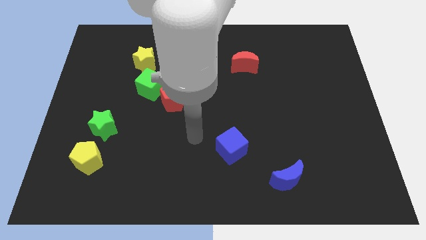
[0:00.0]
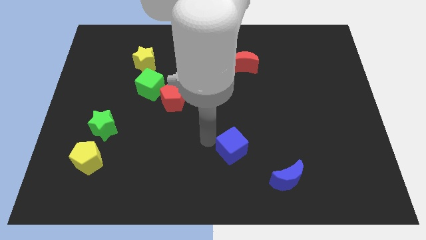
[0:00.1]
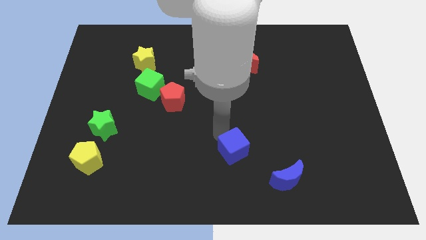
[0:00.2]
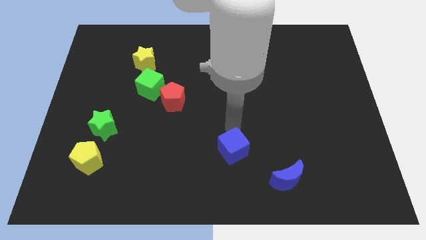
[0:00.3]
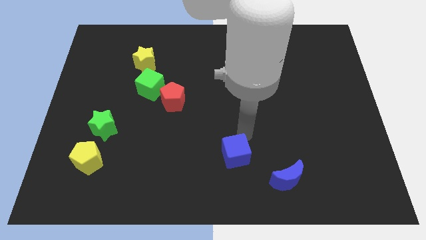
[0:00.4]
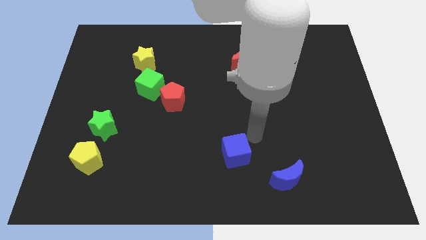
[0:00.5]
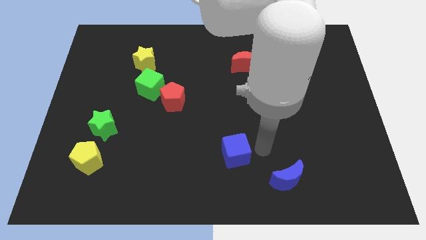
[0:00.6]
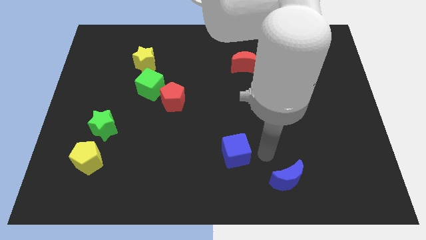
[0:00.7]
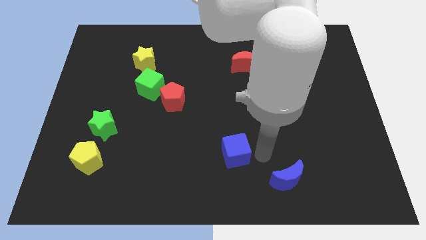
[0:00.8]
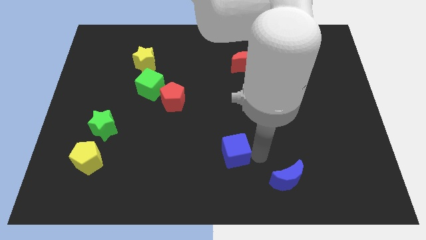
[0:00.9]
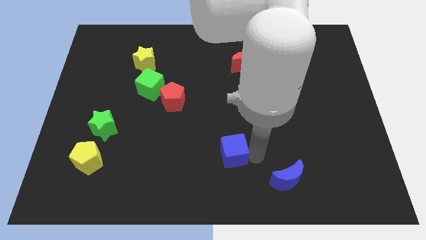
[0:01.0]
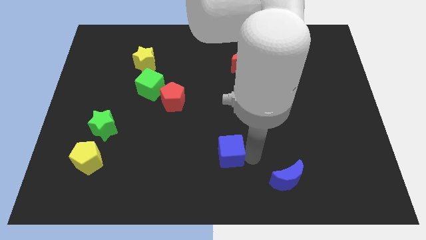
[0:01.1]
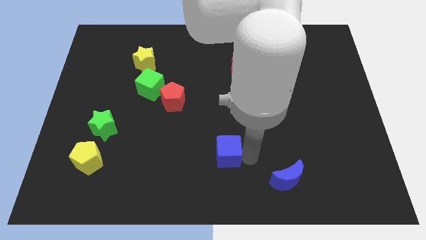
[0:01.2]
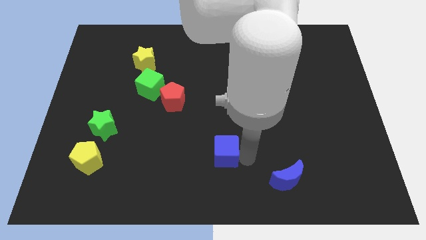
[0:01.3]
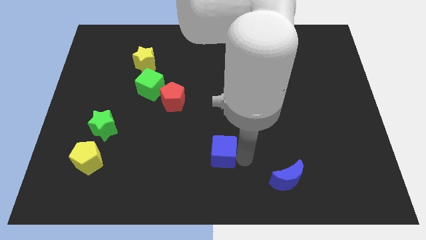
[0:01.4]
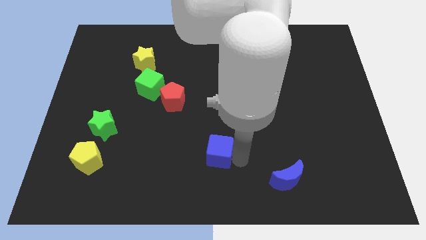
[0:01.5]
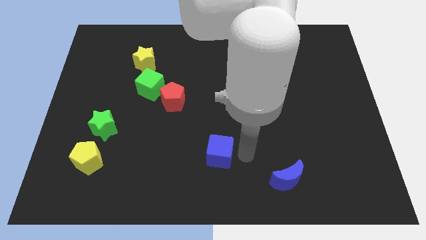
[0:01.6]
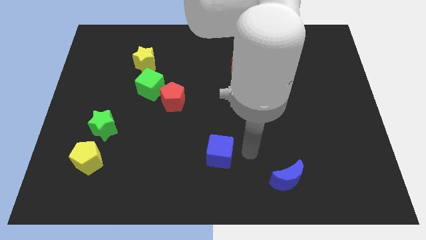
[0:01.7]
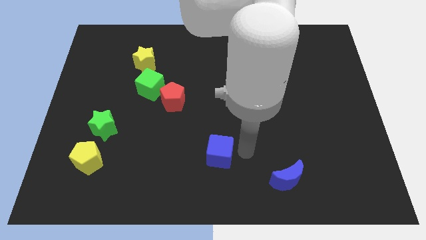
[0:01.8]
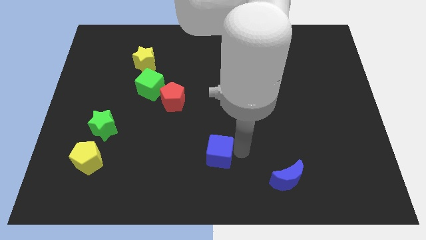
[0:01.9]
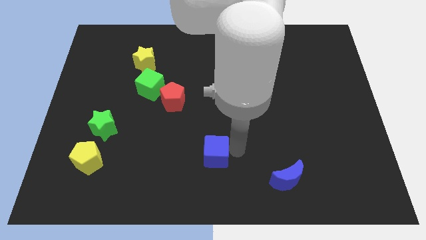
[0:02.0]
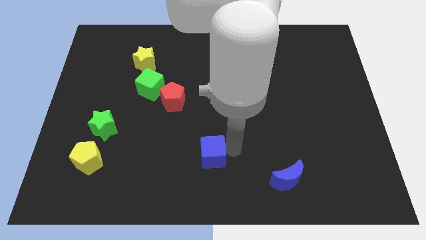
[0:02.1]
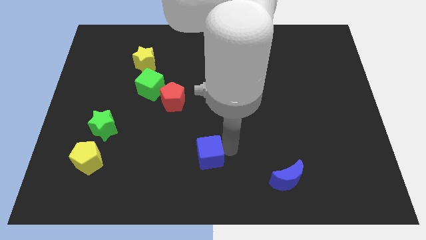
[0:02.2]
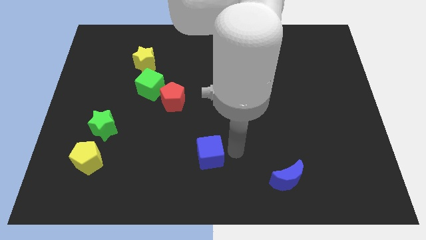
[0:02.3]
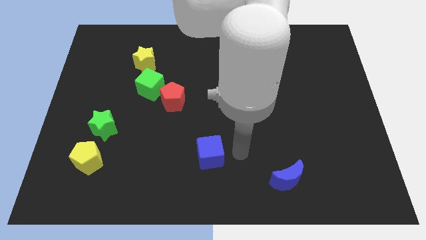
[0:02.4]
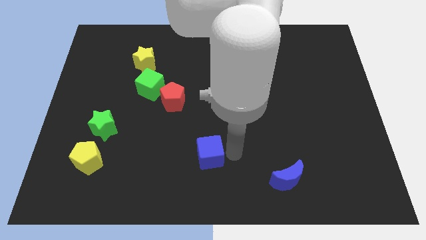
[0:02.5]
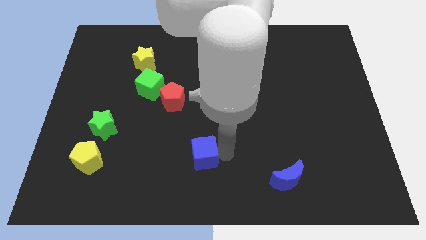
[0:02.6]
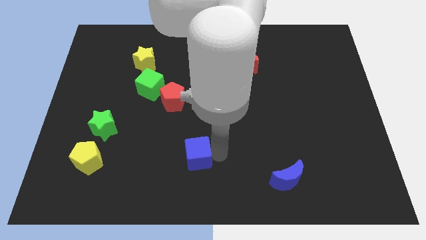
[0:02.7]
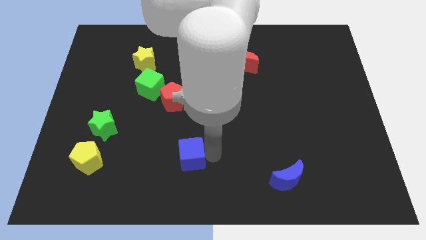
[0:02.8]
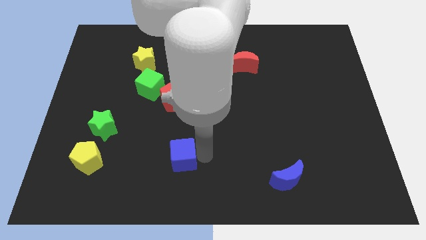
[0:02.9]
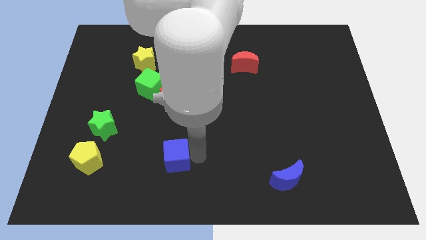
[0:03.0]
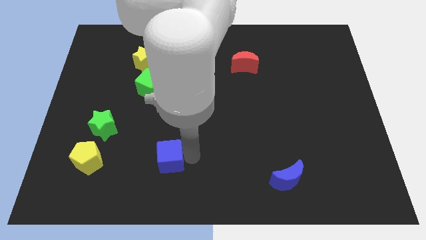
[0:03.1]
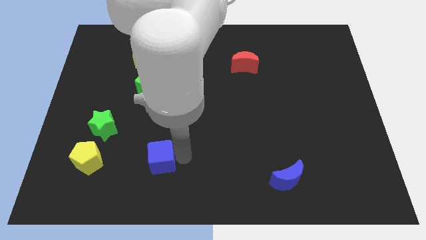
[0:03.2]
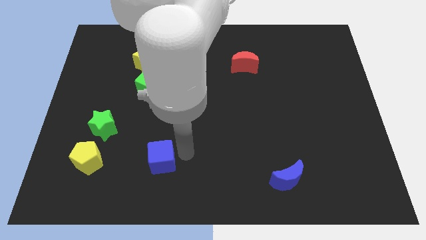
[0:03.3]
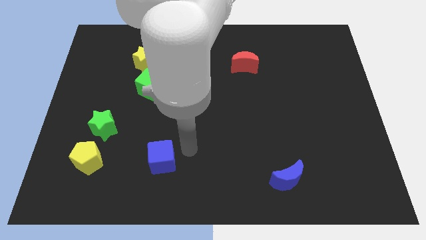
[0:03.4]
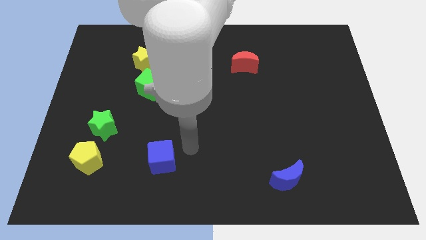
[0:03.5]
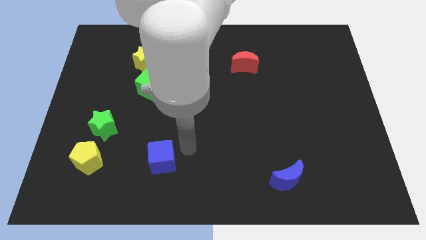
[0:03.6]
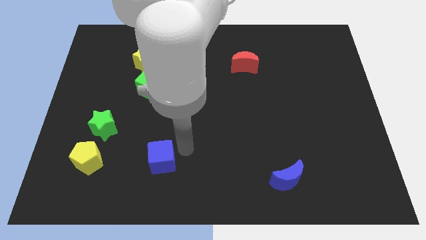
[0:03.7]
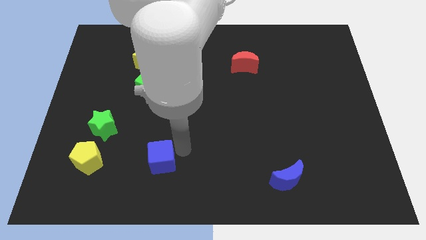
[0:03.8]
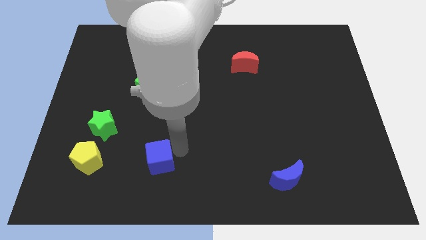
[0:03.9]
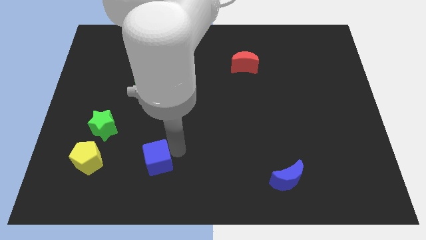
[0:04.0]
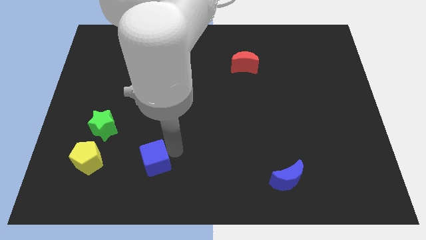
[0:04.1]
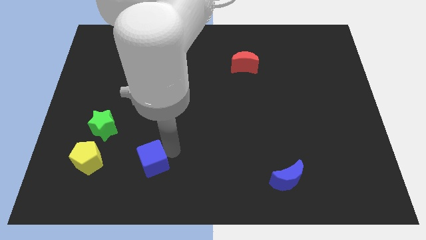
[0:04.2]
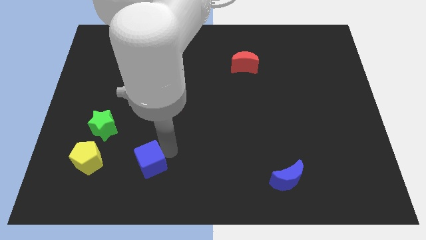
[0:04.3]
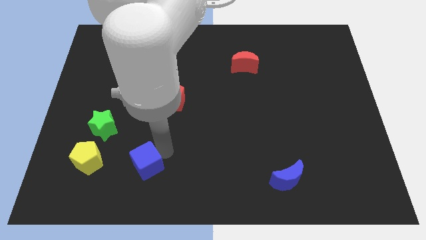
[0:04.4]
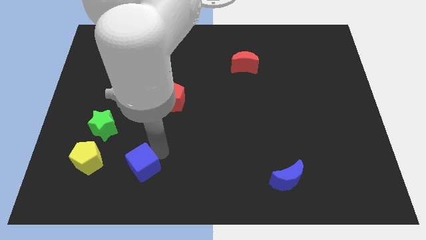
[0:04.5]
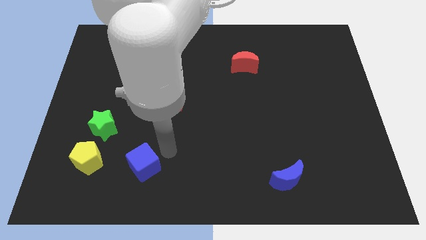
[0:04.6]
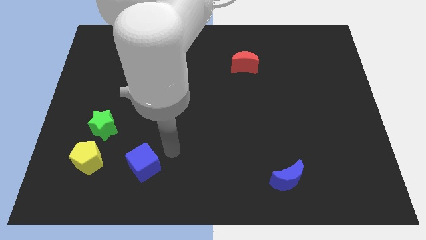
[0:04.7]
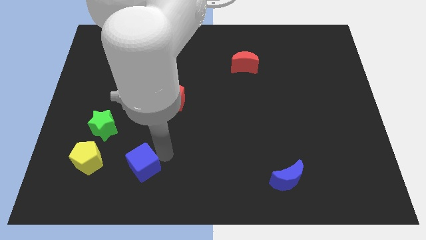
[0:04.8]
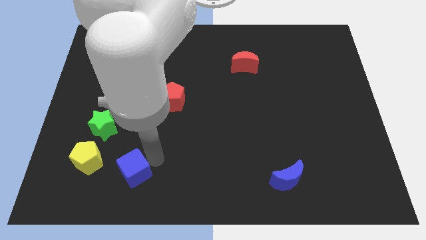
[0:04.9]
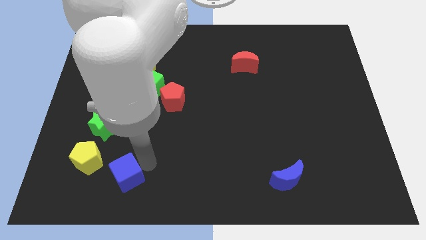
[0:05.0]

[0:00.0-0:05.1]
push the blue cube to the bottom right side of the yellow pentagon

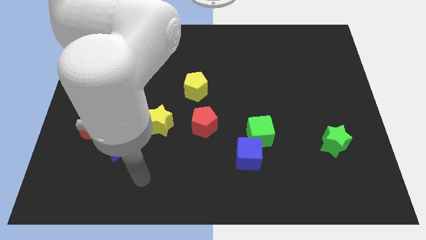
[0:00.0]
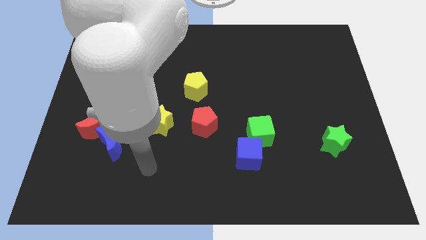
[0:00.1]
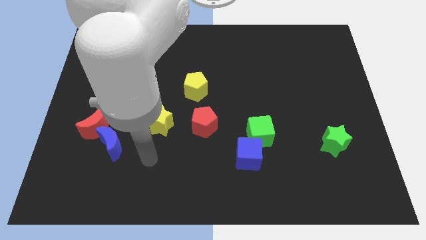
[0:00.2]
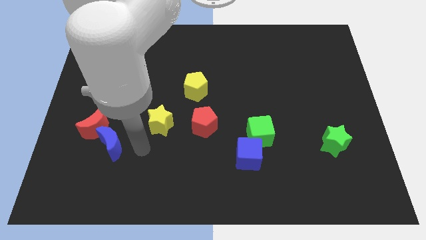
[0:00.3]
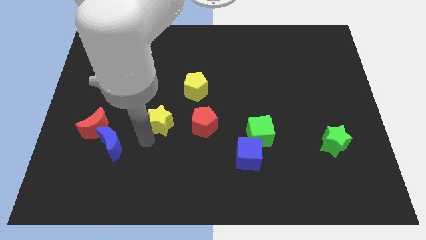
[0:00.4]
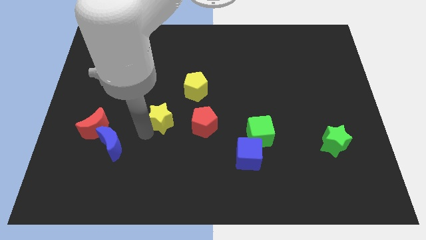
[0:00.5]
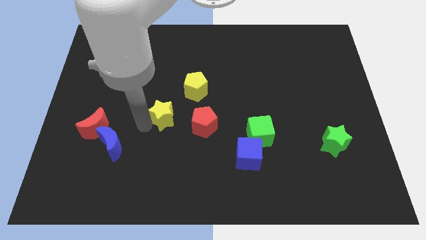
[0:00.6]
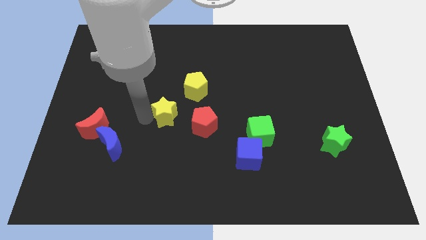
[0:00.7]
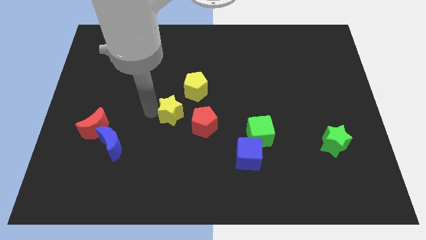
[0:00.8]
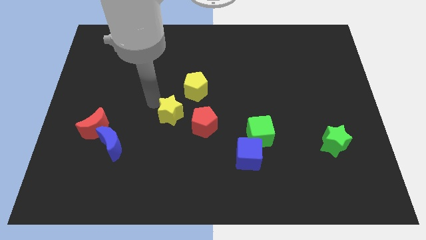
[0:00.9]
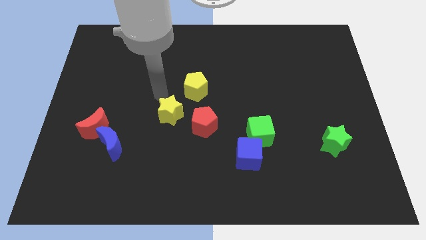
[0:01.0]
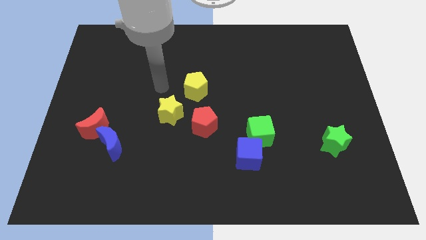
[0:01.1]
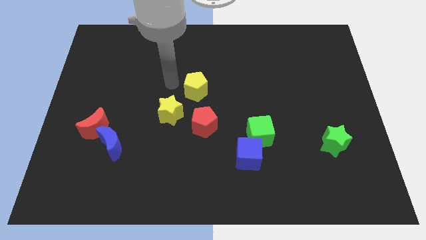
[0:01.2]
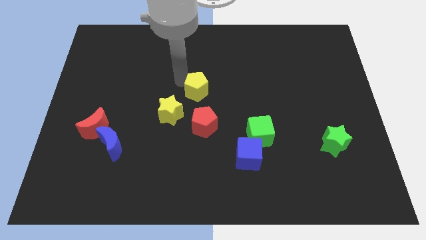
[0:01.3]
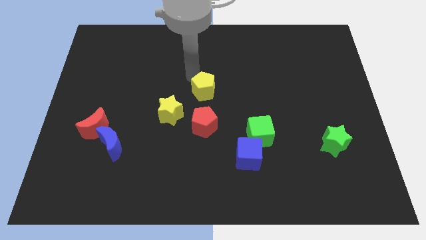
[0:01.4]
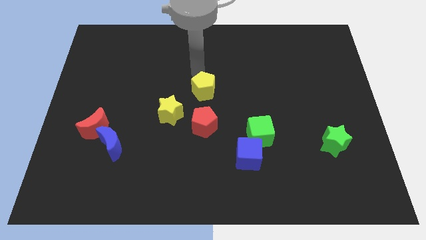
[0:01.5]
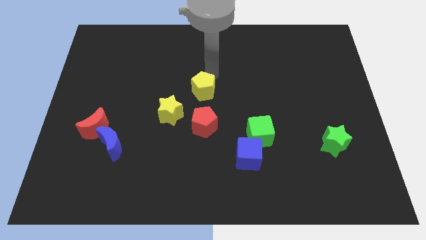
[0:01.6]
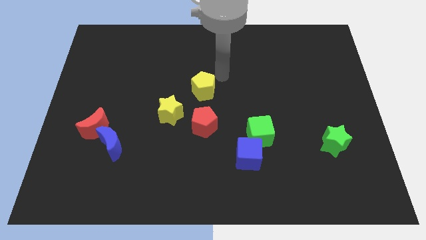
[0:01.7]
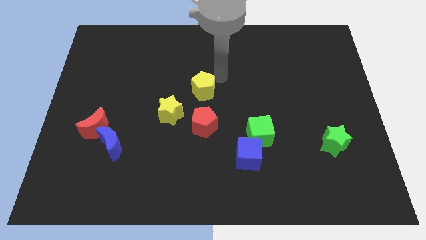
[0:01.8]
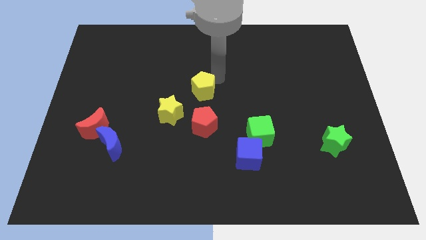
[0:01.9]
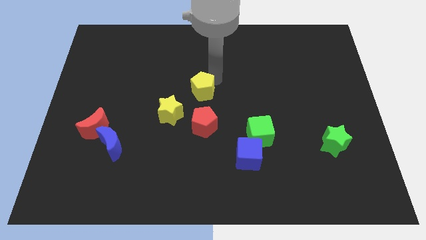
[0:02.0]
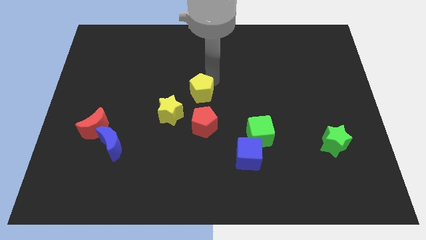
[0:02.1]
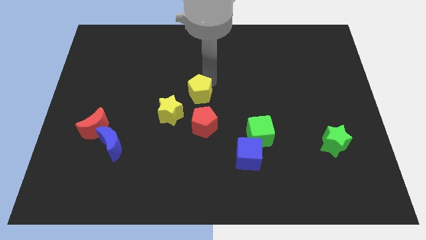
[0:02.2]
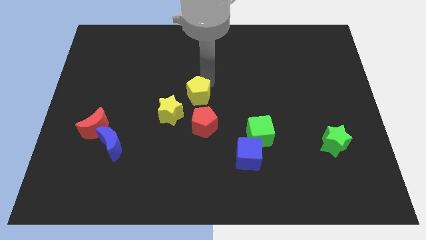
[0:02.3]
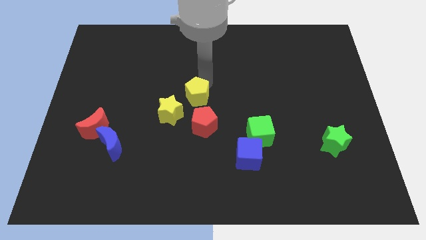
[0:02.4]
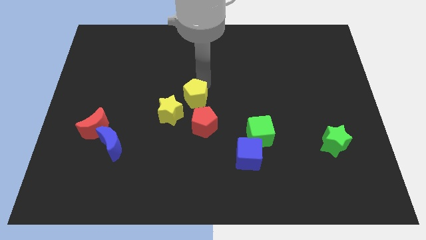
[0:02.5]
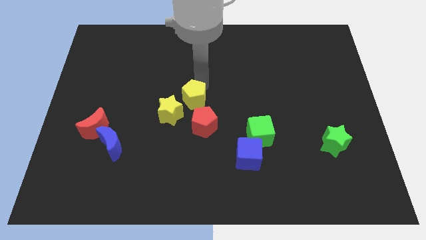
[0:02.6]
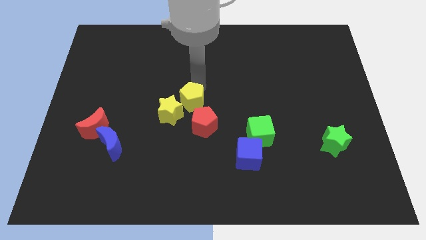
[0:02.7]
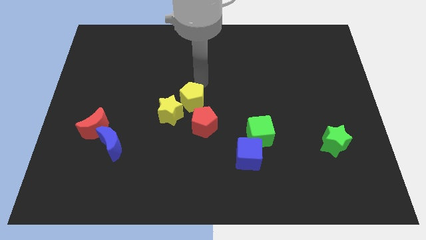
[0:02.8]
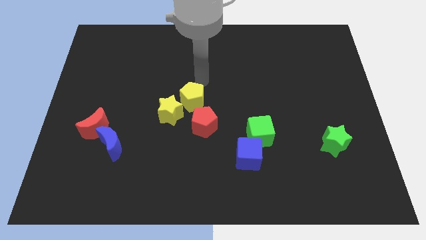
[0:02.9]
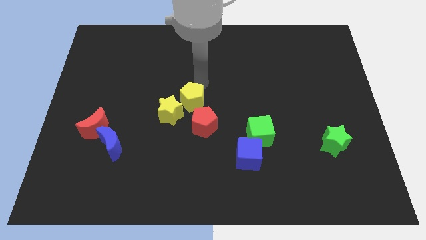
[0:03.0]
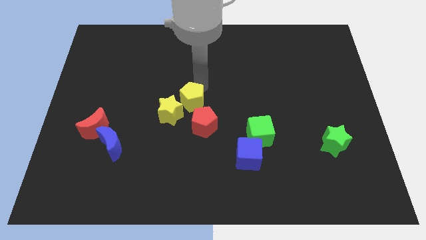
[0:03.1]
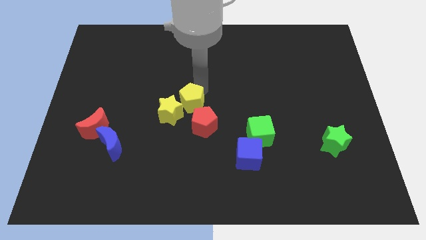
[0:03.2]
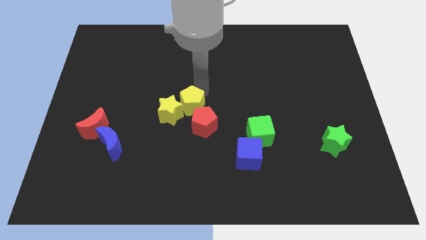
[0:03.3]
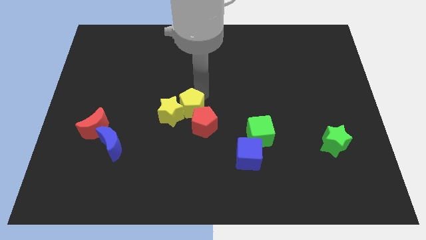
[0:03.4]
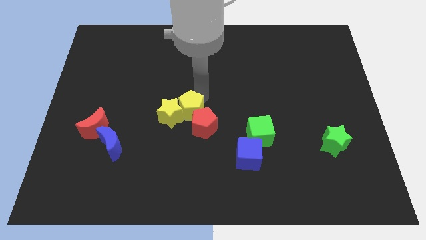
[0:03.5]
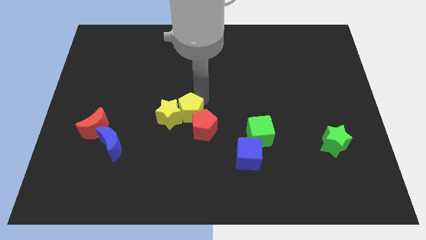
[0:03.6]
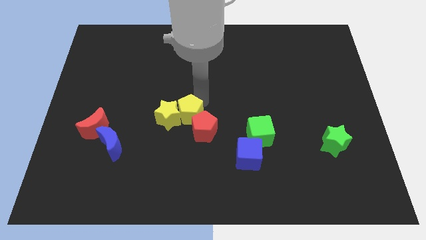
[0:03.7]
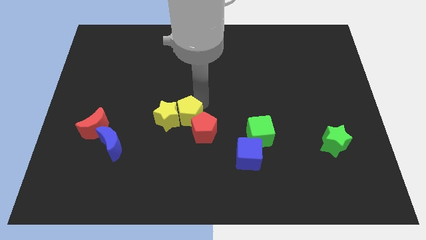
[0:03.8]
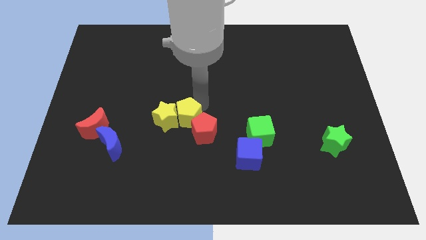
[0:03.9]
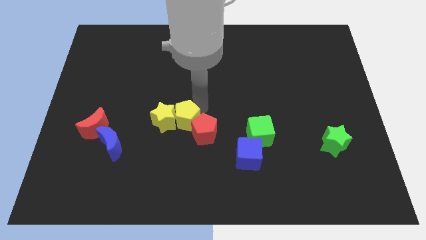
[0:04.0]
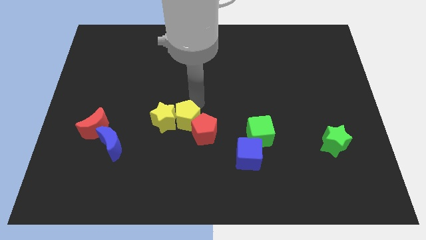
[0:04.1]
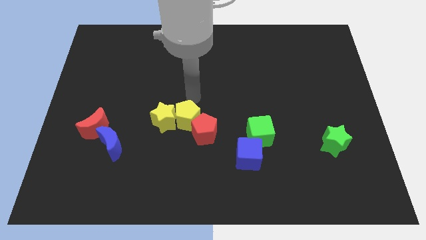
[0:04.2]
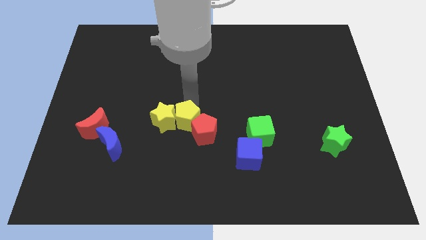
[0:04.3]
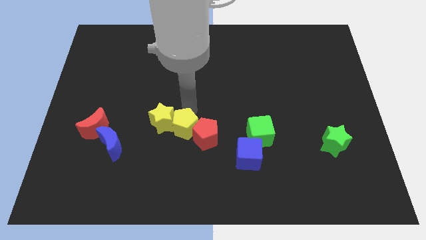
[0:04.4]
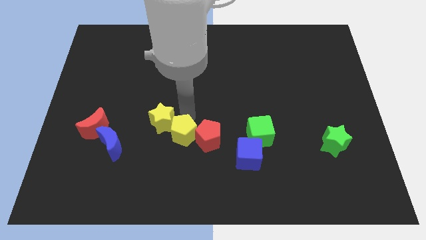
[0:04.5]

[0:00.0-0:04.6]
move the yellow pentagon to the bottom left side of the red pentagon
